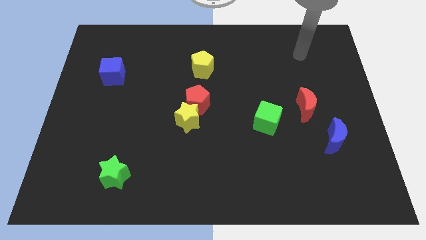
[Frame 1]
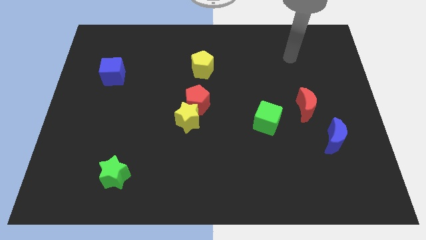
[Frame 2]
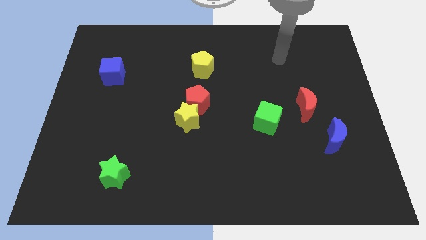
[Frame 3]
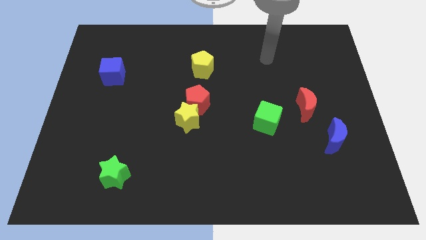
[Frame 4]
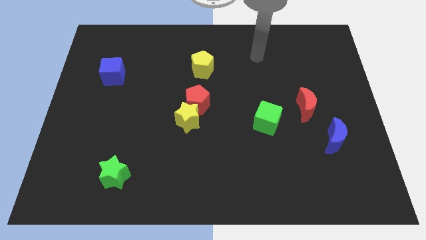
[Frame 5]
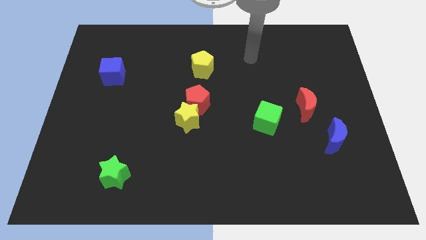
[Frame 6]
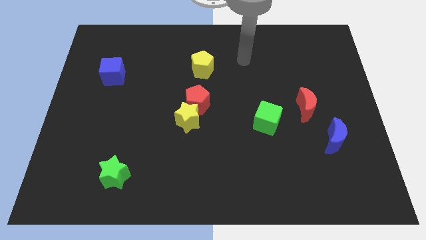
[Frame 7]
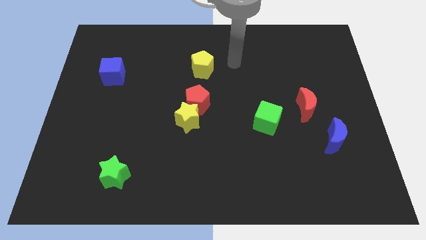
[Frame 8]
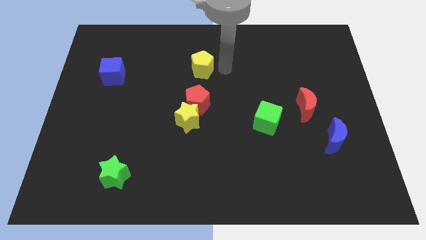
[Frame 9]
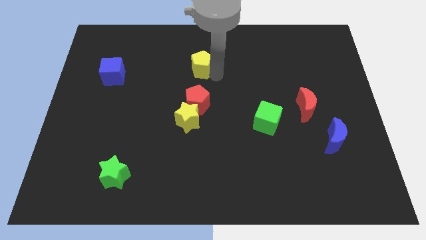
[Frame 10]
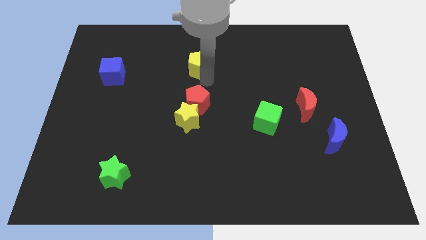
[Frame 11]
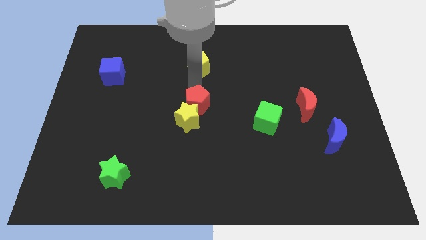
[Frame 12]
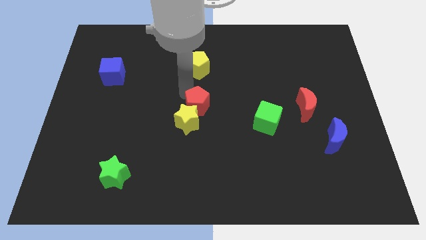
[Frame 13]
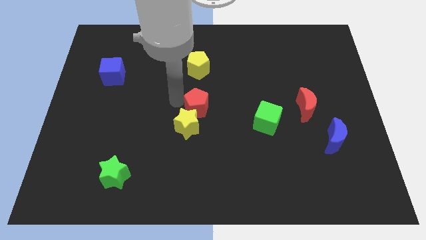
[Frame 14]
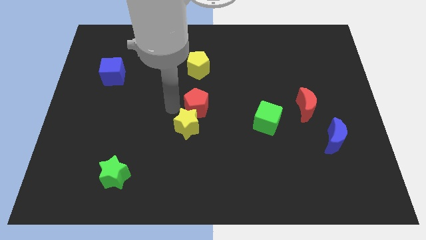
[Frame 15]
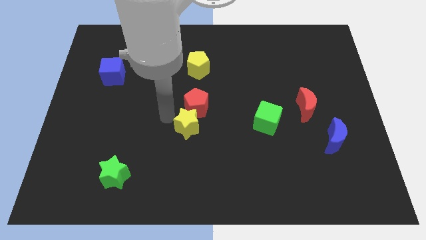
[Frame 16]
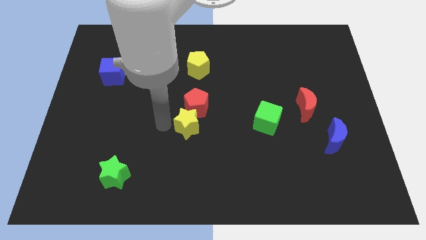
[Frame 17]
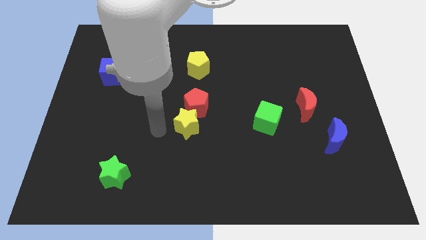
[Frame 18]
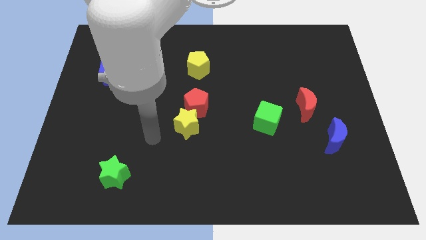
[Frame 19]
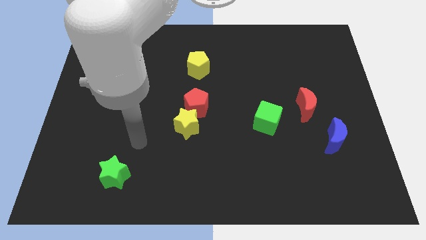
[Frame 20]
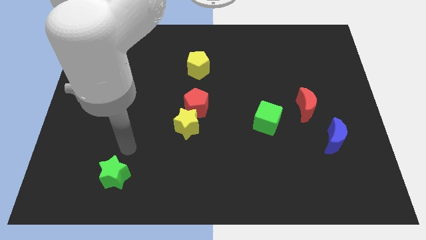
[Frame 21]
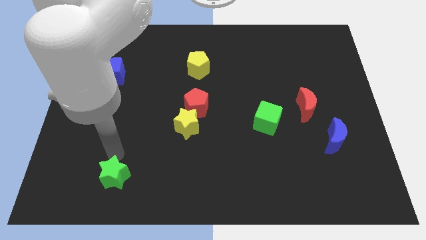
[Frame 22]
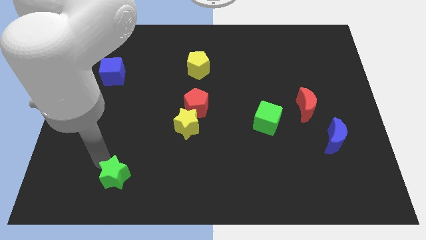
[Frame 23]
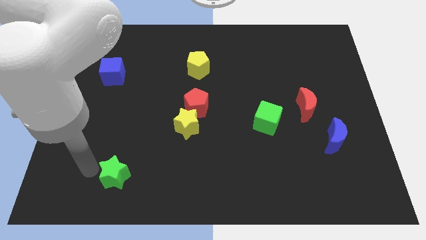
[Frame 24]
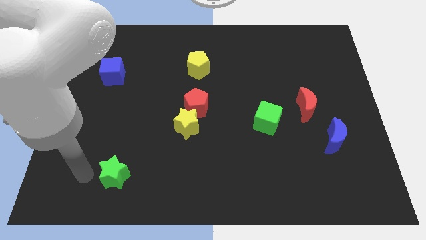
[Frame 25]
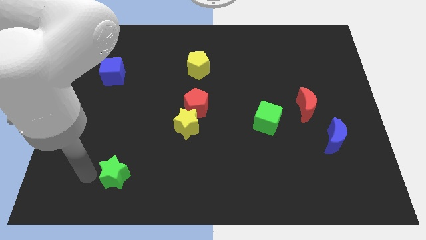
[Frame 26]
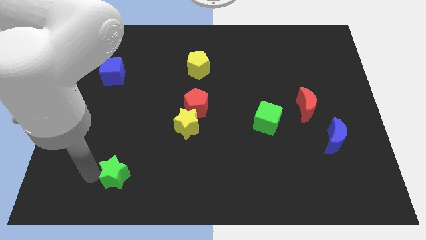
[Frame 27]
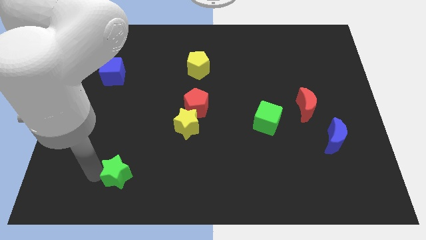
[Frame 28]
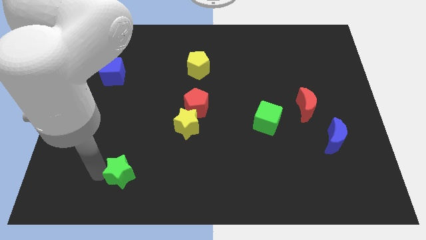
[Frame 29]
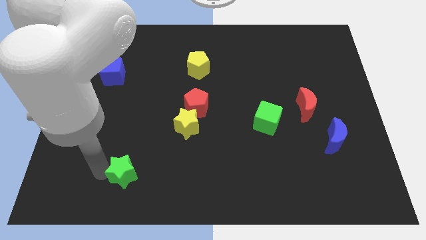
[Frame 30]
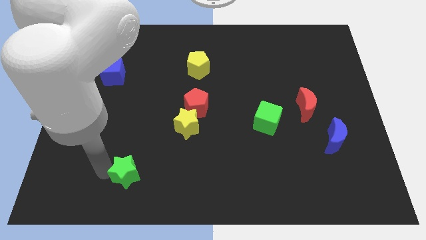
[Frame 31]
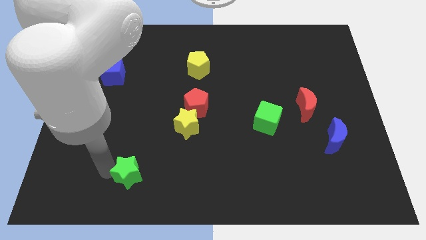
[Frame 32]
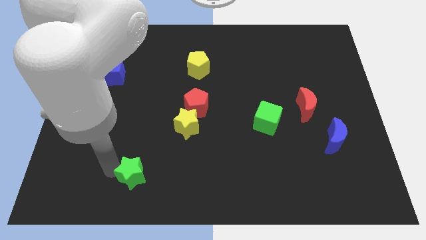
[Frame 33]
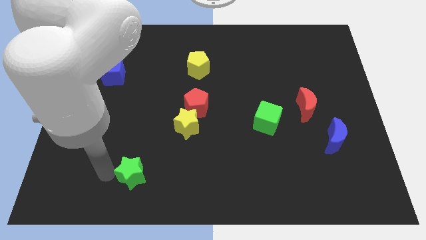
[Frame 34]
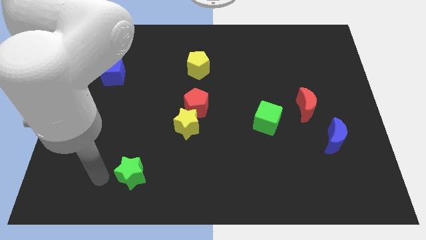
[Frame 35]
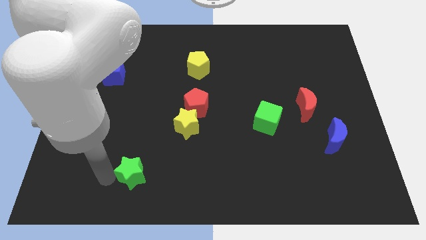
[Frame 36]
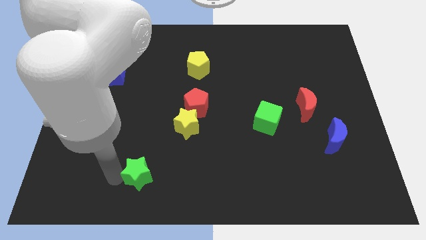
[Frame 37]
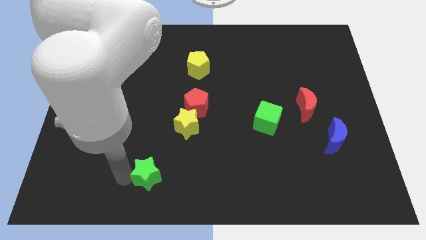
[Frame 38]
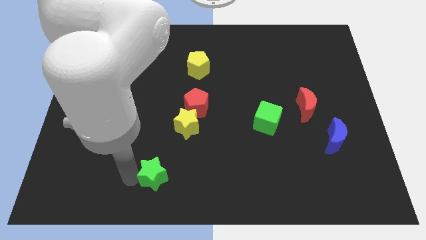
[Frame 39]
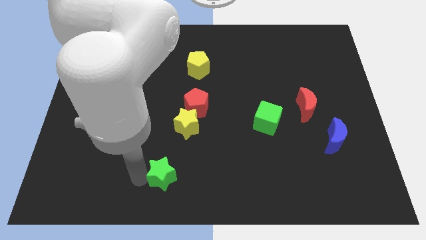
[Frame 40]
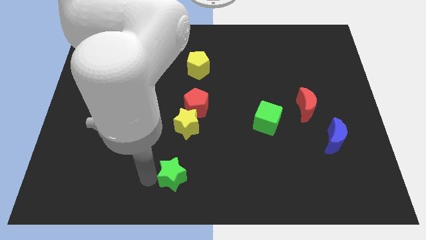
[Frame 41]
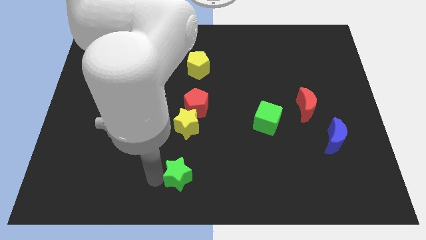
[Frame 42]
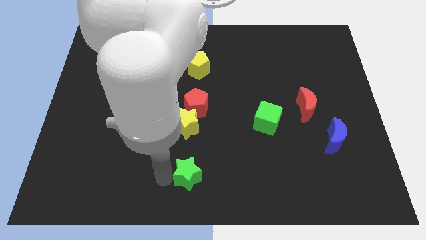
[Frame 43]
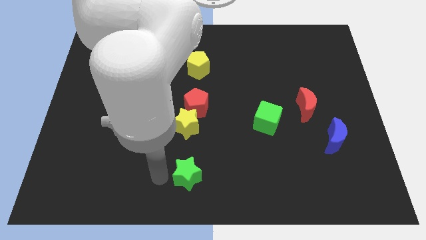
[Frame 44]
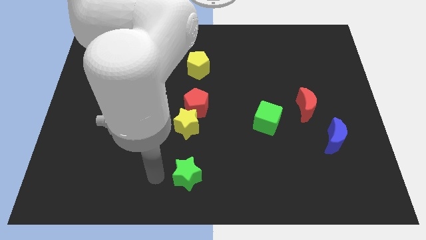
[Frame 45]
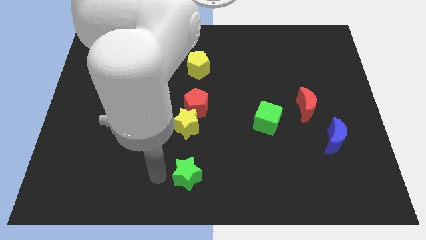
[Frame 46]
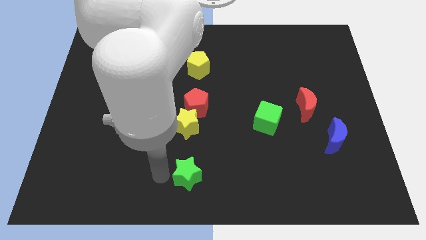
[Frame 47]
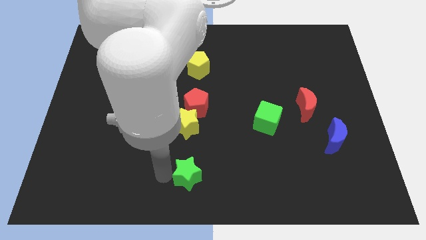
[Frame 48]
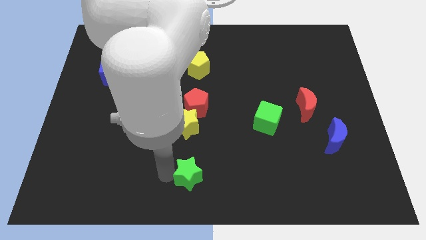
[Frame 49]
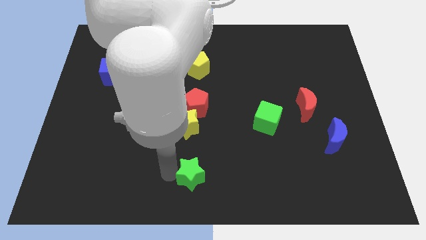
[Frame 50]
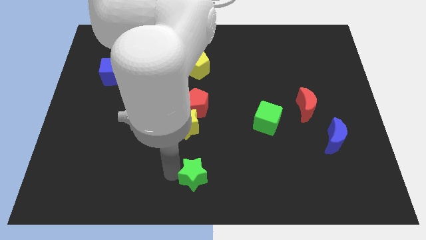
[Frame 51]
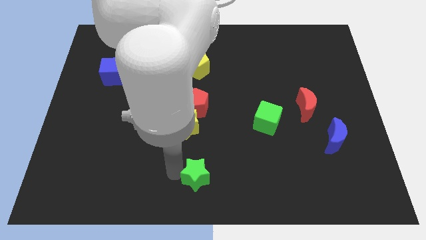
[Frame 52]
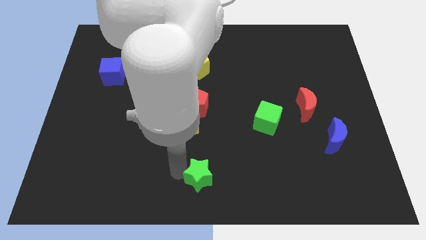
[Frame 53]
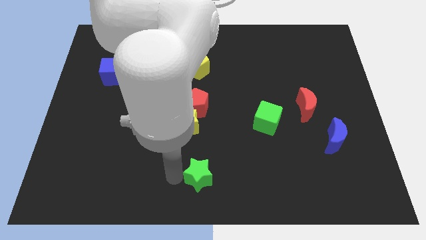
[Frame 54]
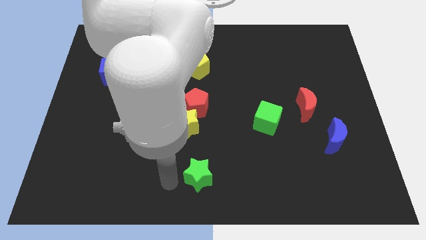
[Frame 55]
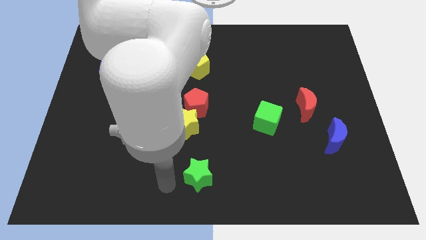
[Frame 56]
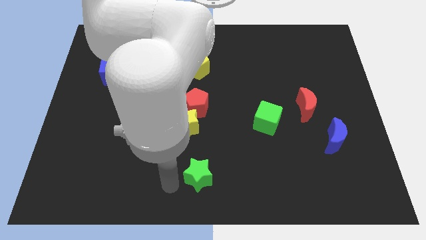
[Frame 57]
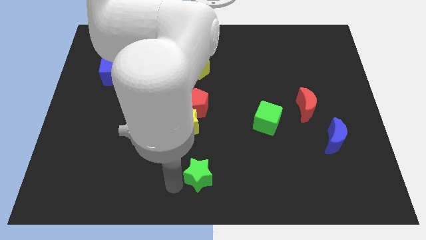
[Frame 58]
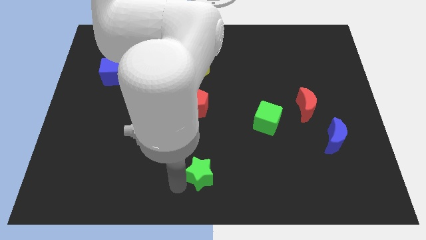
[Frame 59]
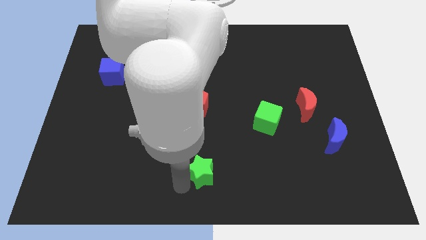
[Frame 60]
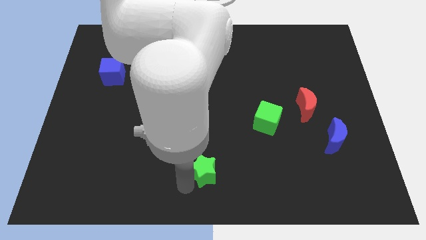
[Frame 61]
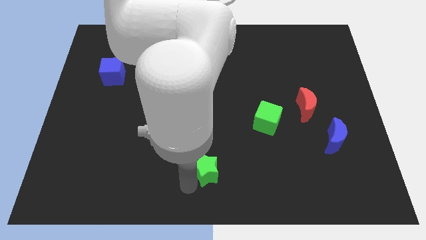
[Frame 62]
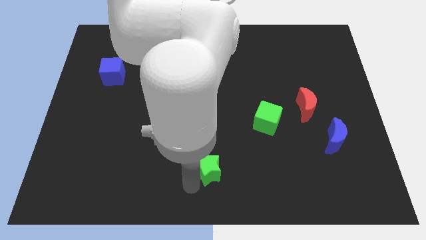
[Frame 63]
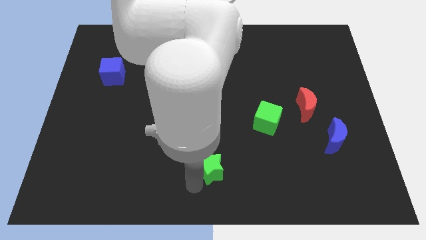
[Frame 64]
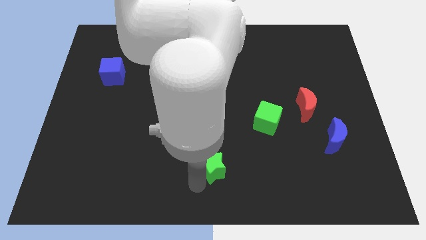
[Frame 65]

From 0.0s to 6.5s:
slide the green star to the right

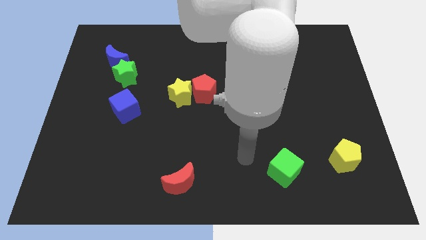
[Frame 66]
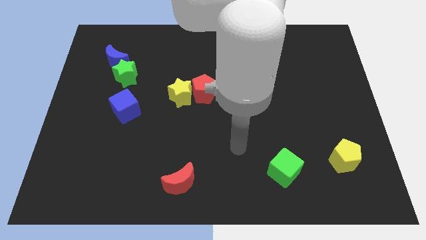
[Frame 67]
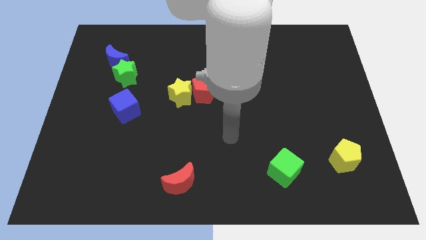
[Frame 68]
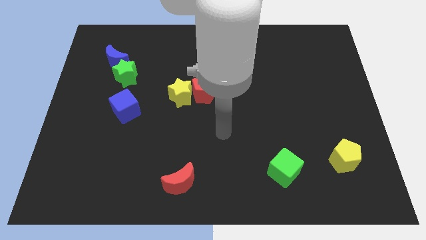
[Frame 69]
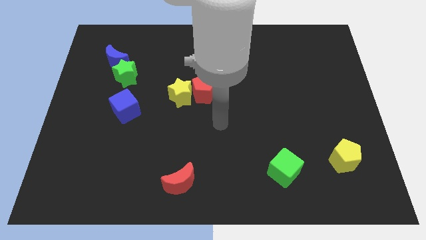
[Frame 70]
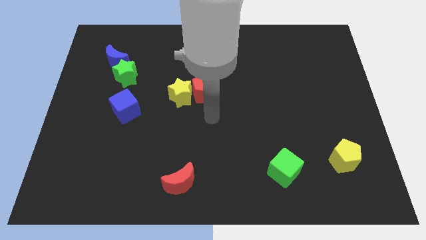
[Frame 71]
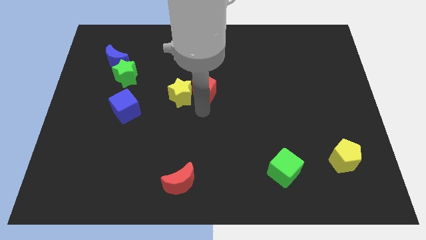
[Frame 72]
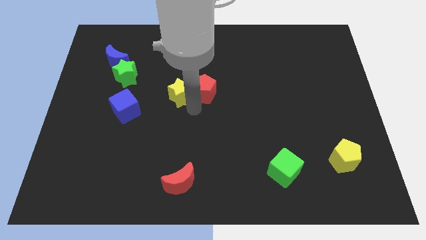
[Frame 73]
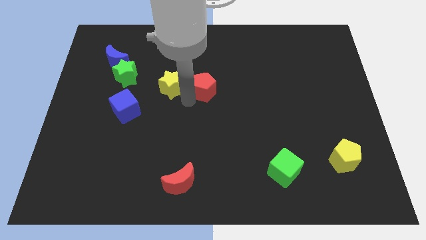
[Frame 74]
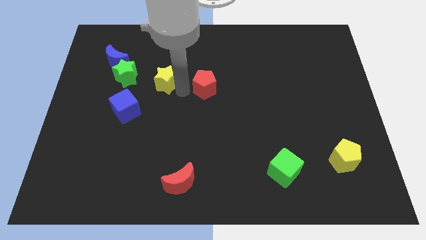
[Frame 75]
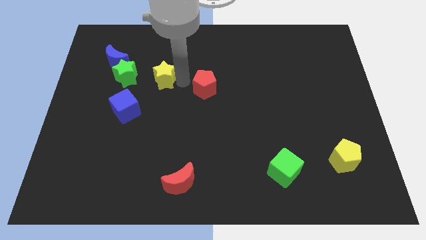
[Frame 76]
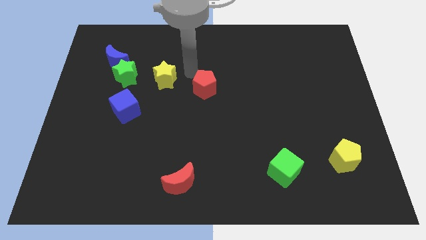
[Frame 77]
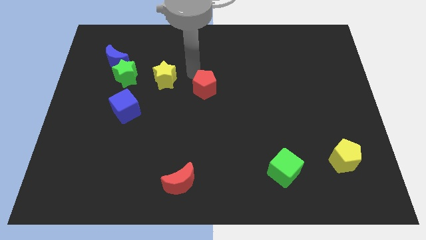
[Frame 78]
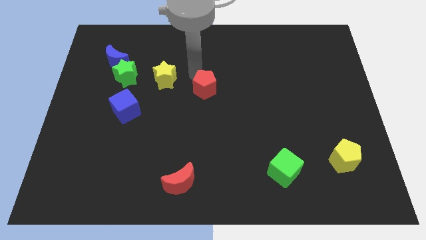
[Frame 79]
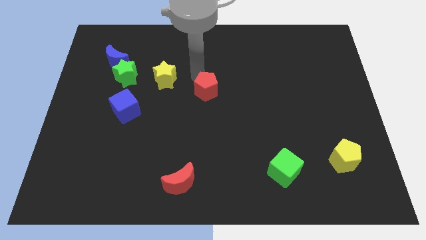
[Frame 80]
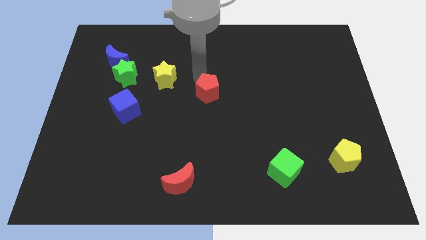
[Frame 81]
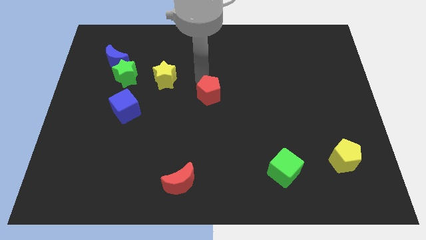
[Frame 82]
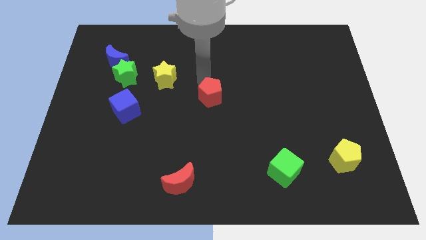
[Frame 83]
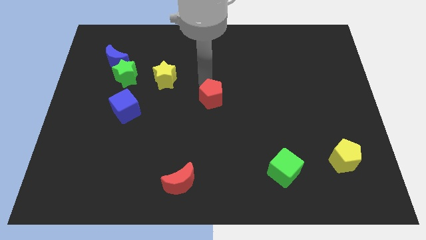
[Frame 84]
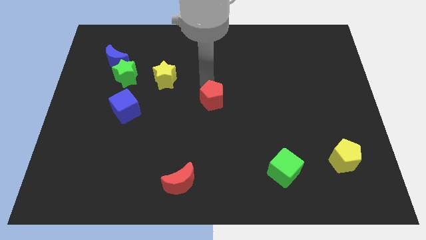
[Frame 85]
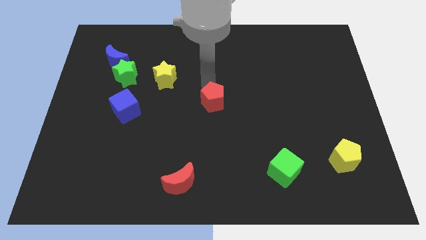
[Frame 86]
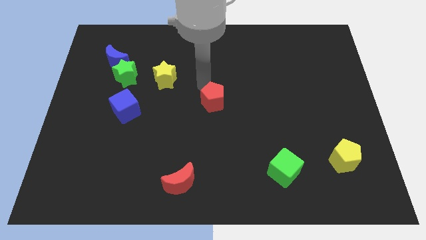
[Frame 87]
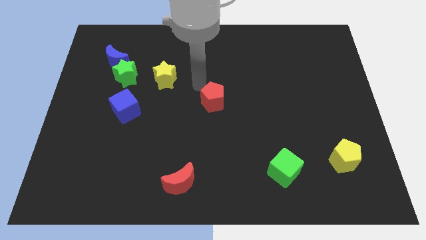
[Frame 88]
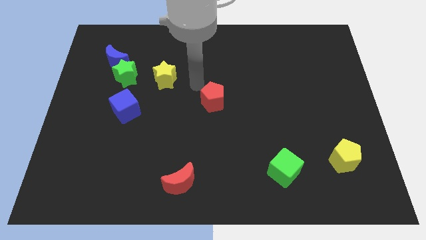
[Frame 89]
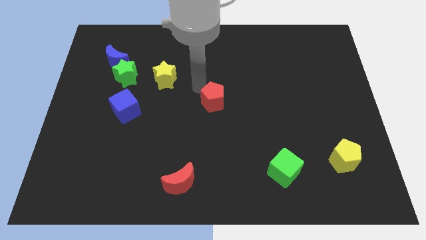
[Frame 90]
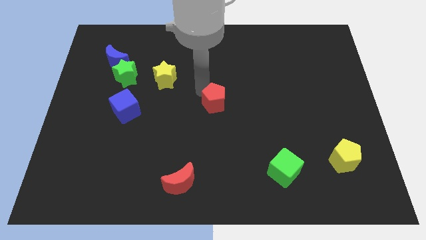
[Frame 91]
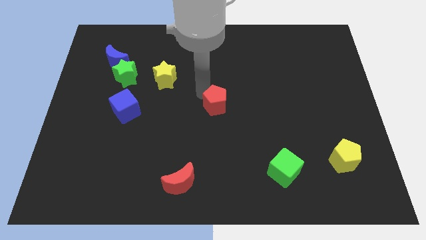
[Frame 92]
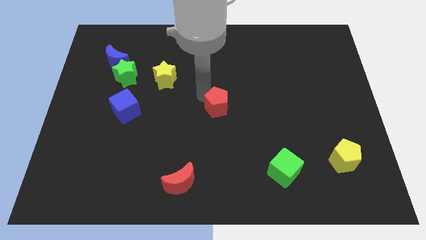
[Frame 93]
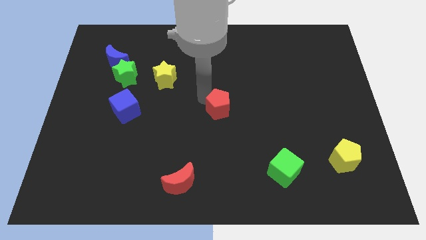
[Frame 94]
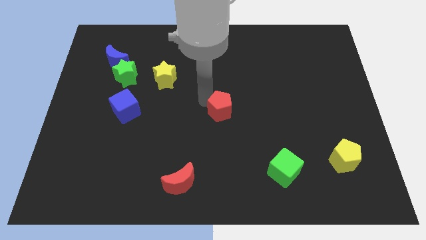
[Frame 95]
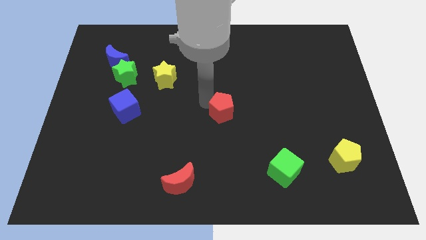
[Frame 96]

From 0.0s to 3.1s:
move the red pentagon downwards and right diagonally a little
